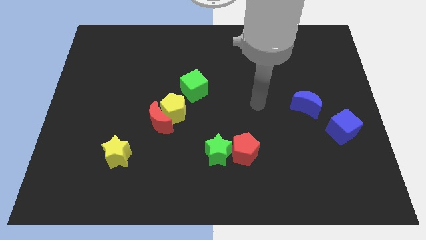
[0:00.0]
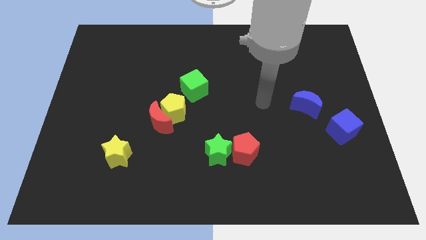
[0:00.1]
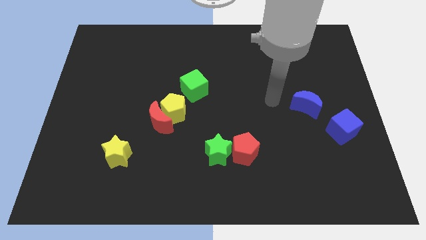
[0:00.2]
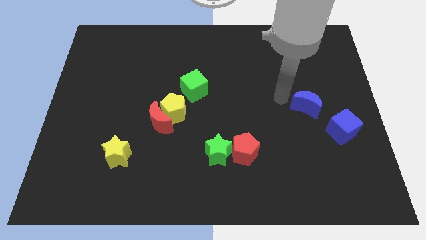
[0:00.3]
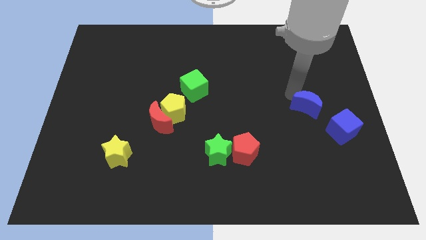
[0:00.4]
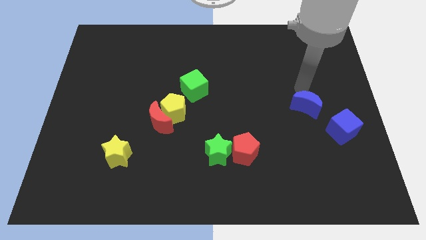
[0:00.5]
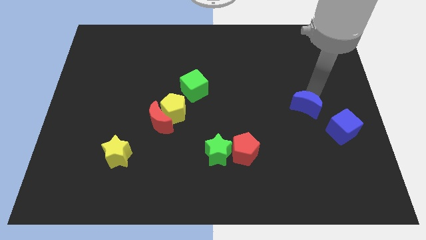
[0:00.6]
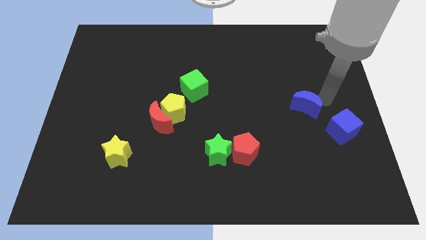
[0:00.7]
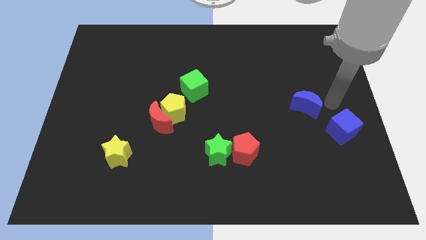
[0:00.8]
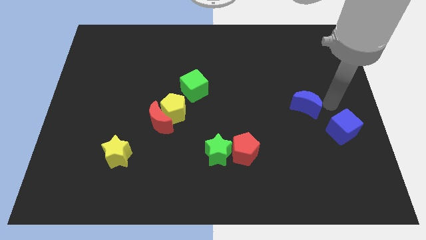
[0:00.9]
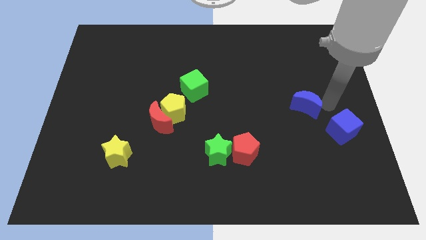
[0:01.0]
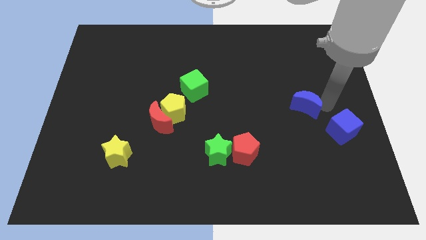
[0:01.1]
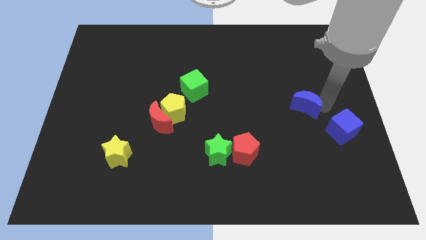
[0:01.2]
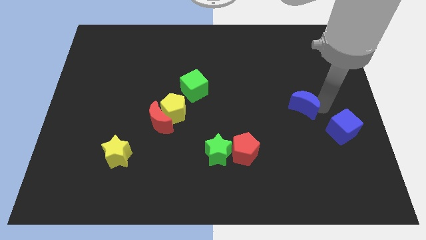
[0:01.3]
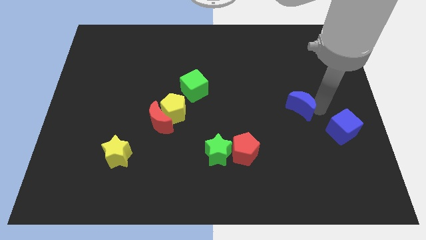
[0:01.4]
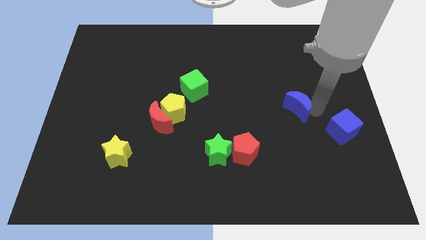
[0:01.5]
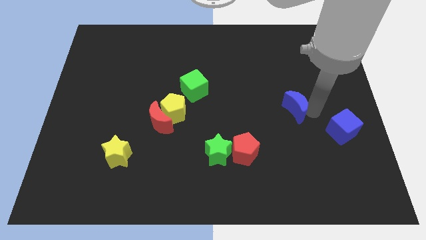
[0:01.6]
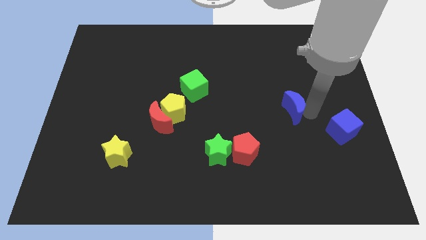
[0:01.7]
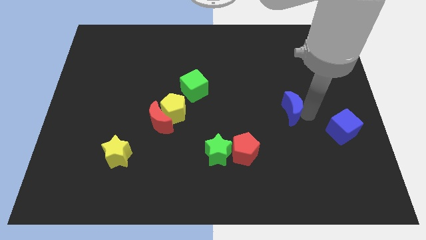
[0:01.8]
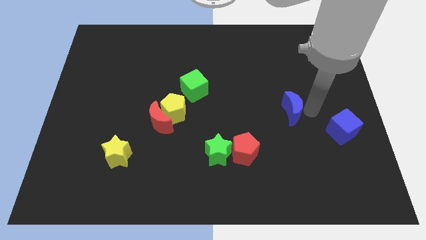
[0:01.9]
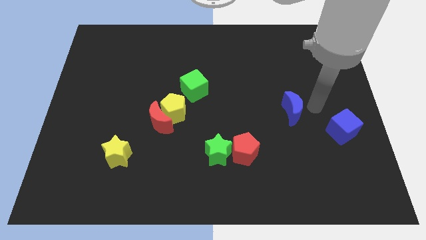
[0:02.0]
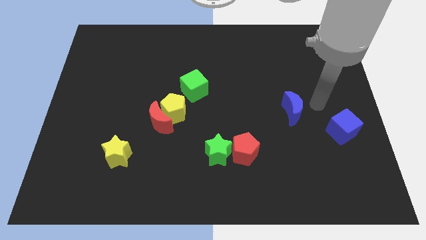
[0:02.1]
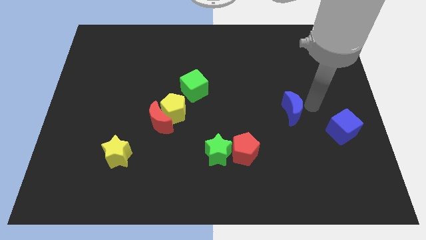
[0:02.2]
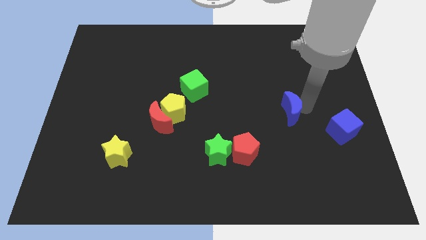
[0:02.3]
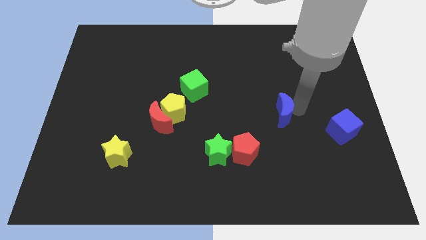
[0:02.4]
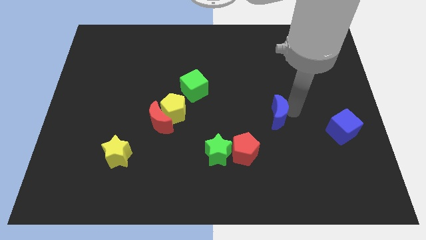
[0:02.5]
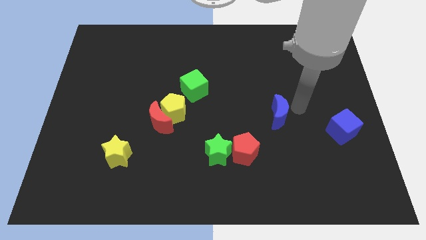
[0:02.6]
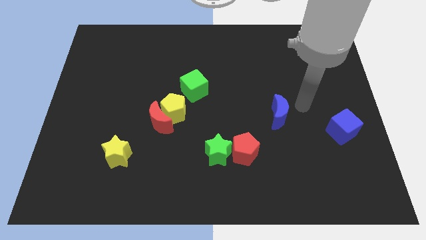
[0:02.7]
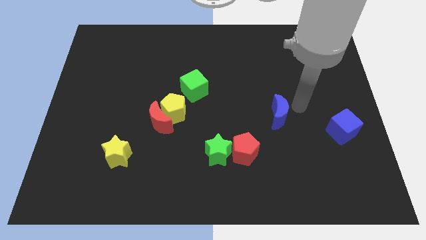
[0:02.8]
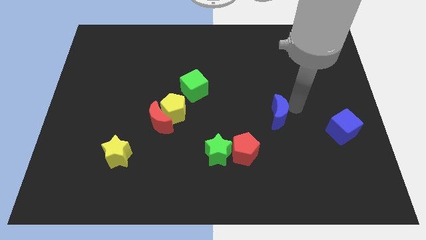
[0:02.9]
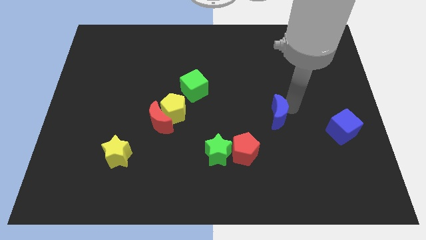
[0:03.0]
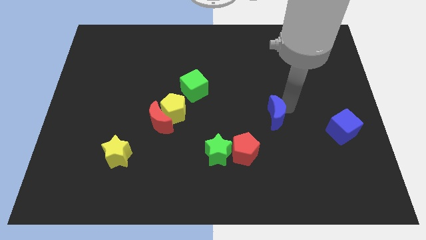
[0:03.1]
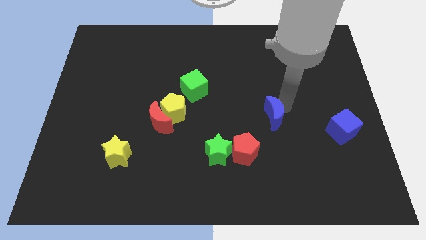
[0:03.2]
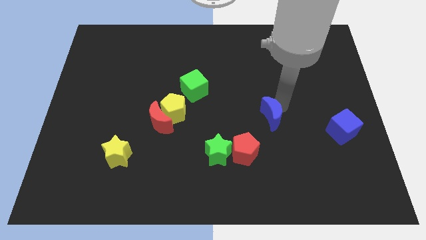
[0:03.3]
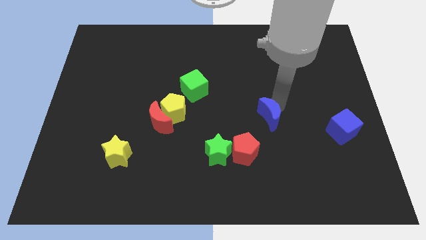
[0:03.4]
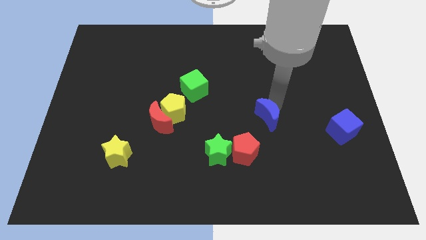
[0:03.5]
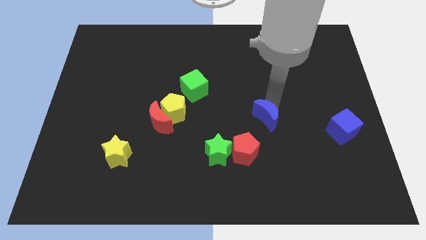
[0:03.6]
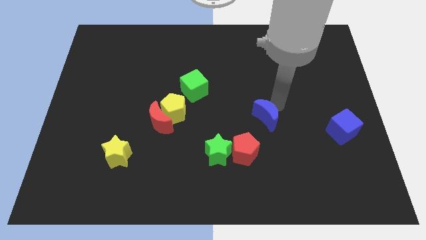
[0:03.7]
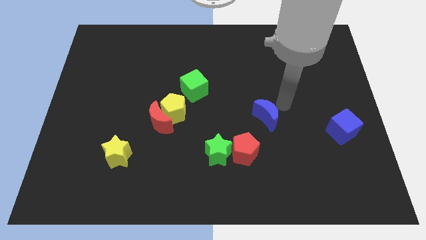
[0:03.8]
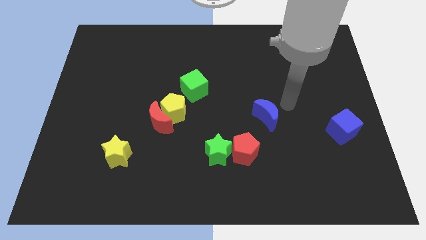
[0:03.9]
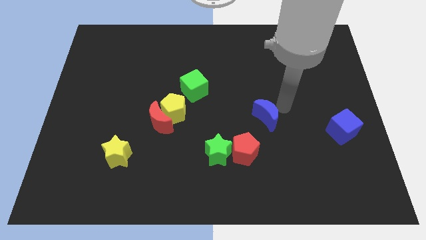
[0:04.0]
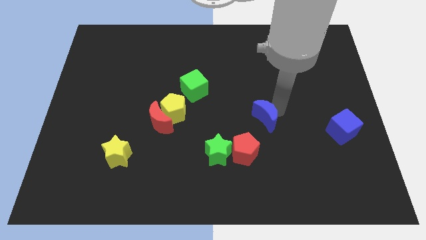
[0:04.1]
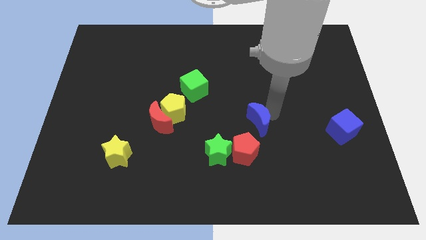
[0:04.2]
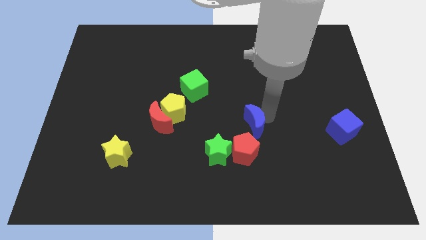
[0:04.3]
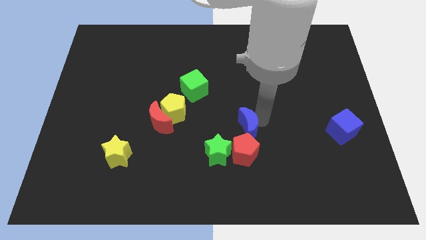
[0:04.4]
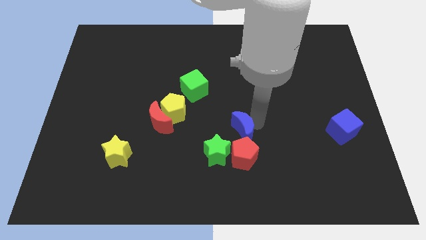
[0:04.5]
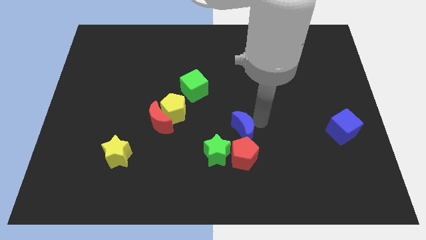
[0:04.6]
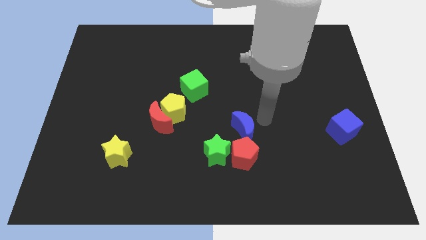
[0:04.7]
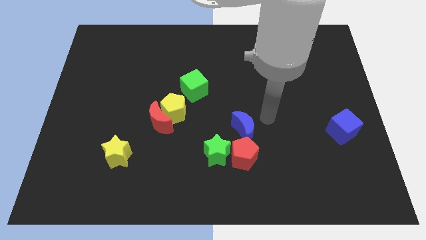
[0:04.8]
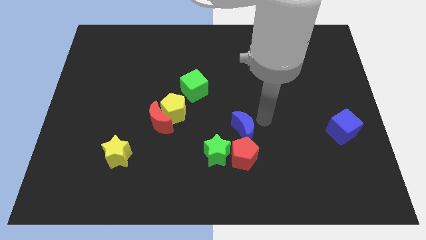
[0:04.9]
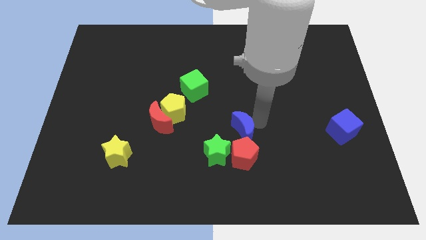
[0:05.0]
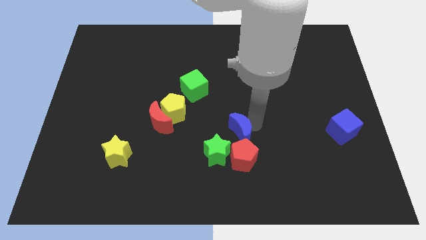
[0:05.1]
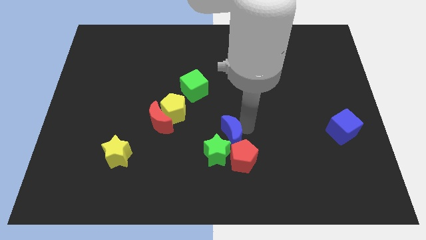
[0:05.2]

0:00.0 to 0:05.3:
move the blue moon to the green star

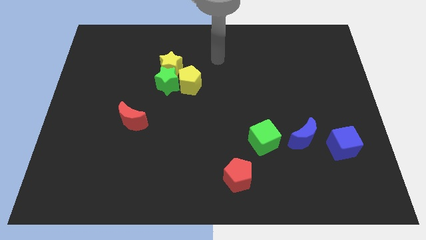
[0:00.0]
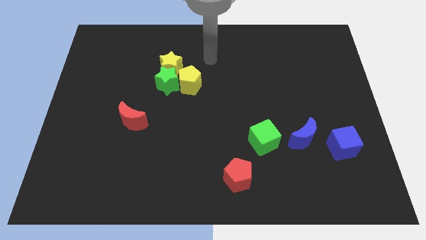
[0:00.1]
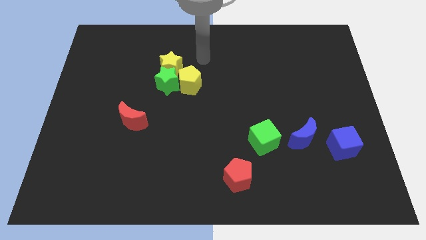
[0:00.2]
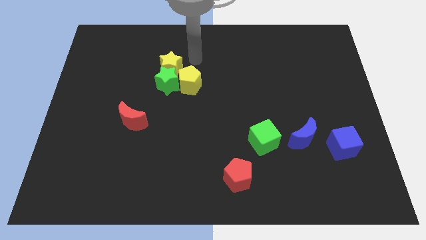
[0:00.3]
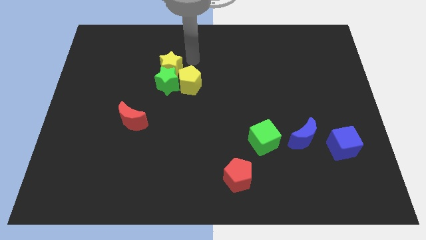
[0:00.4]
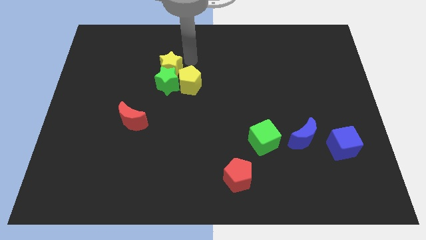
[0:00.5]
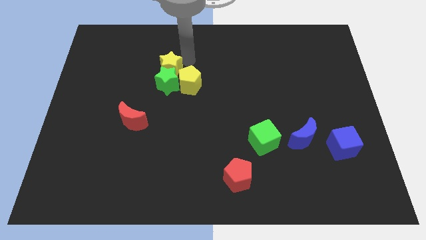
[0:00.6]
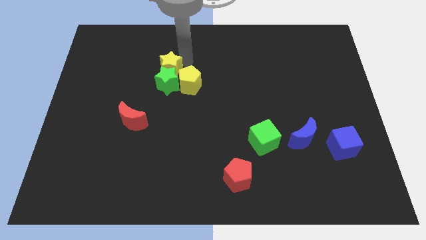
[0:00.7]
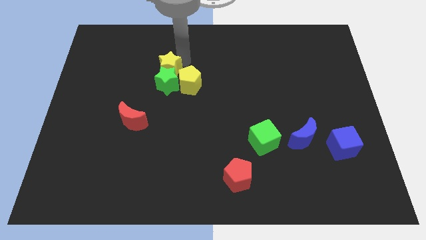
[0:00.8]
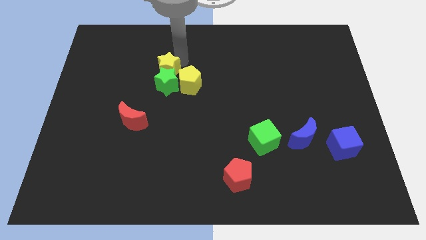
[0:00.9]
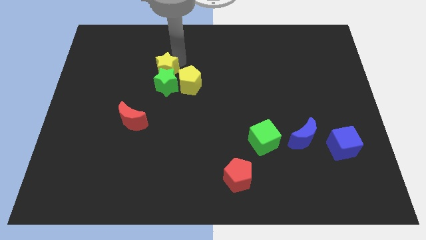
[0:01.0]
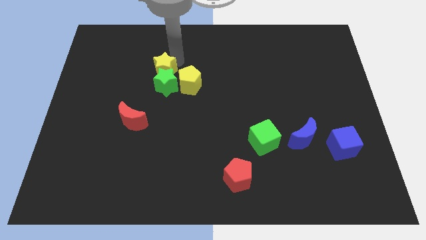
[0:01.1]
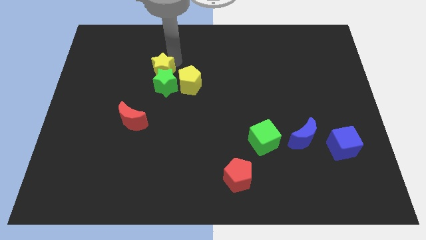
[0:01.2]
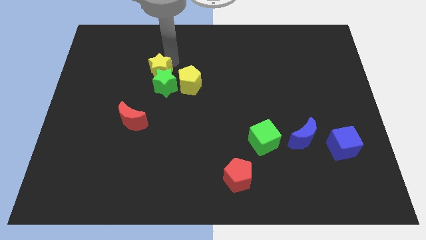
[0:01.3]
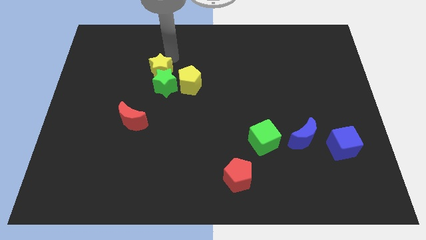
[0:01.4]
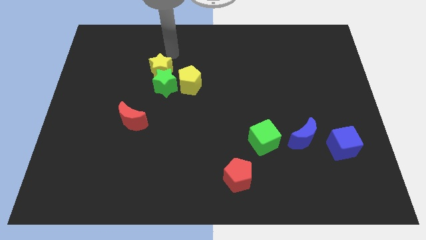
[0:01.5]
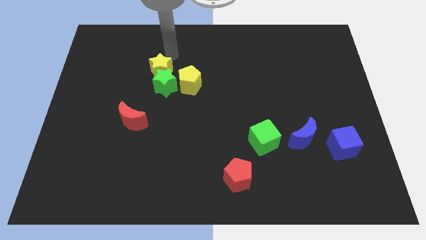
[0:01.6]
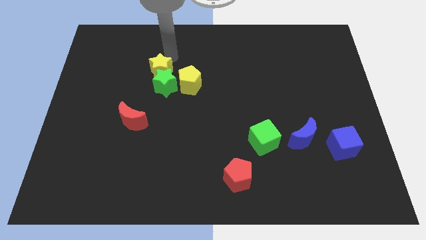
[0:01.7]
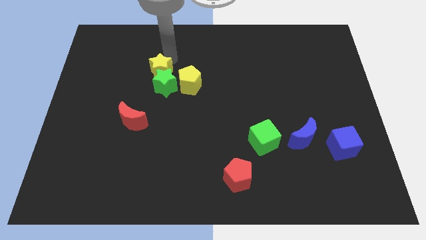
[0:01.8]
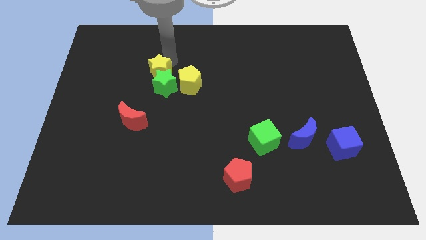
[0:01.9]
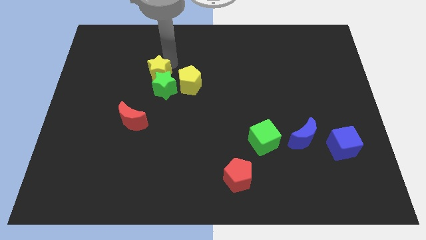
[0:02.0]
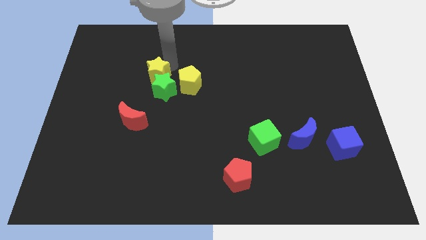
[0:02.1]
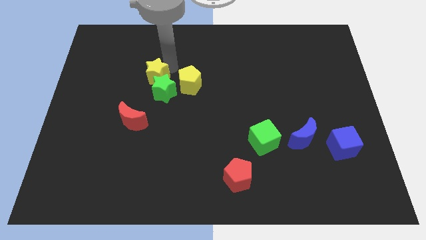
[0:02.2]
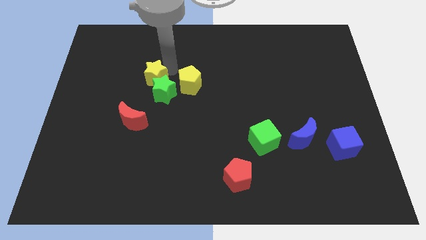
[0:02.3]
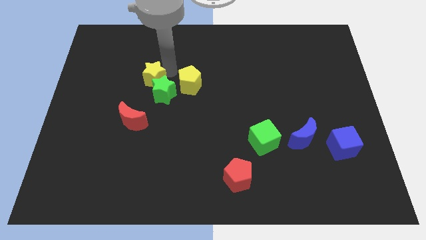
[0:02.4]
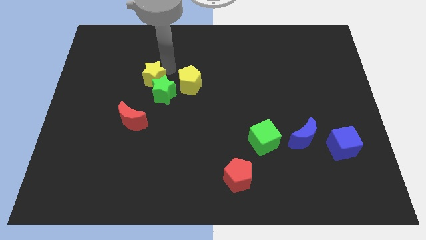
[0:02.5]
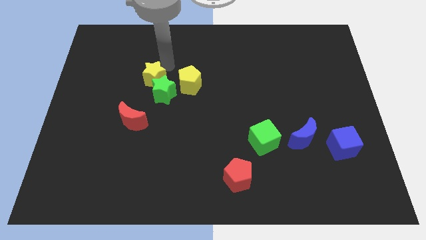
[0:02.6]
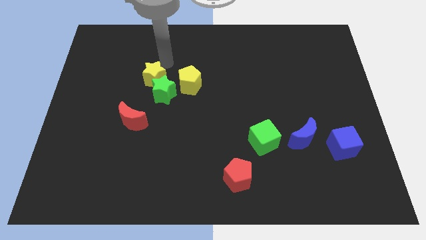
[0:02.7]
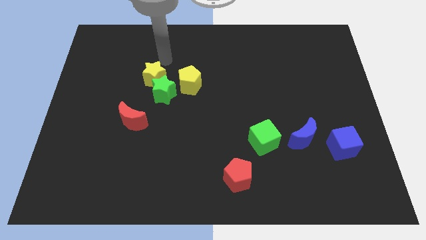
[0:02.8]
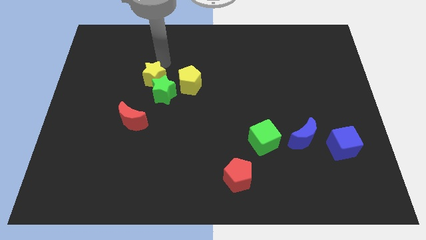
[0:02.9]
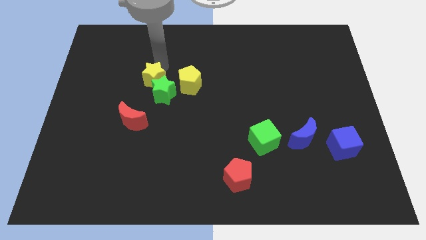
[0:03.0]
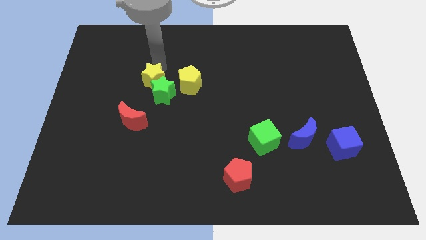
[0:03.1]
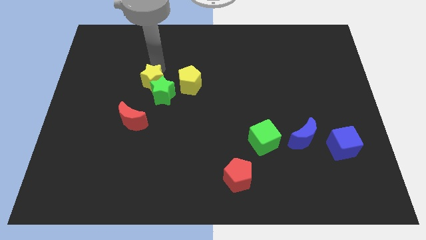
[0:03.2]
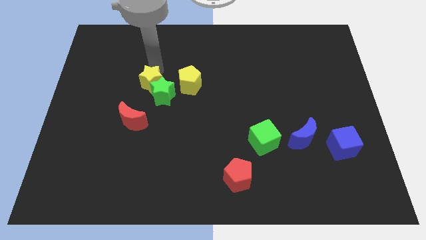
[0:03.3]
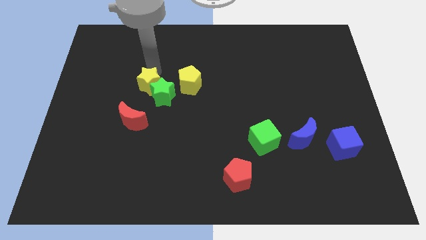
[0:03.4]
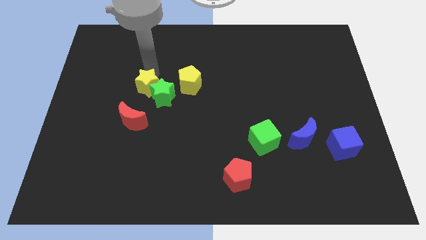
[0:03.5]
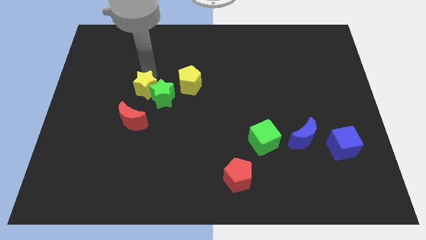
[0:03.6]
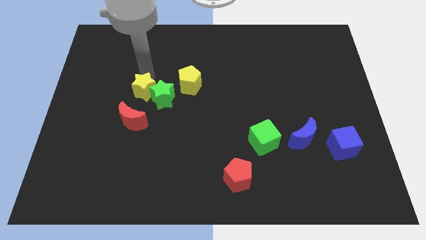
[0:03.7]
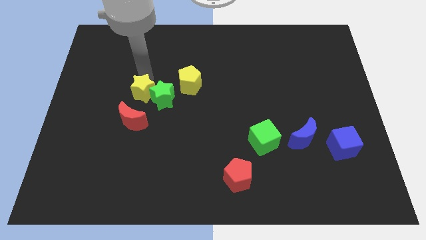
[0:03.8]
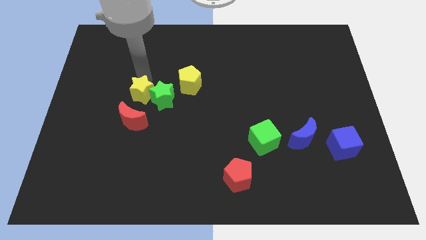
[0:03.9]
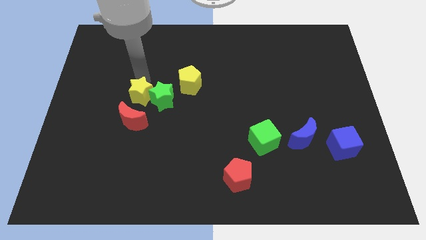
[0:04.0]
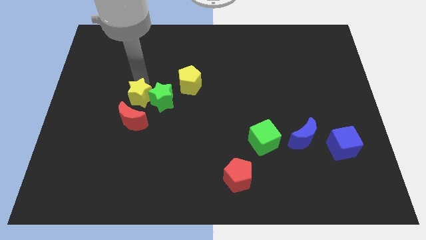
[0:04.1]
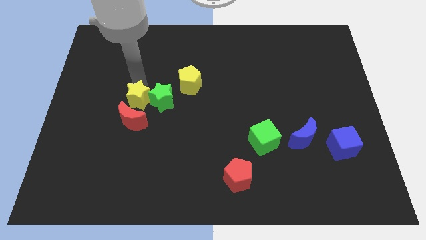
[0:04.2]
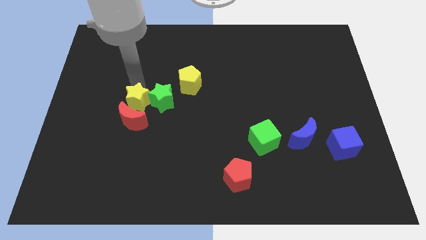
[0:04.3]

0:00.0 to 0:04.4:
slide the yellow star towards the red moon
